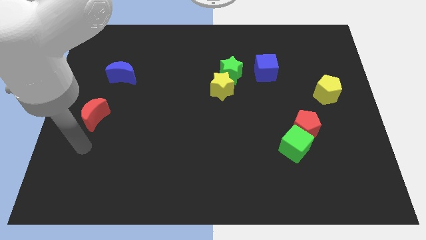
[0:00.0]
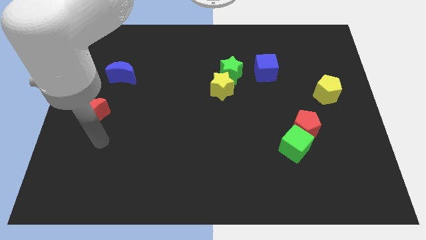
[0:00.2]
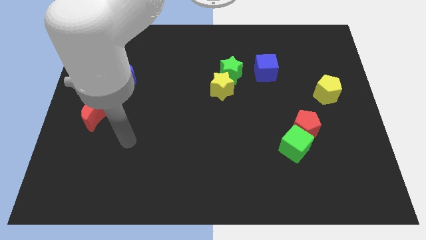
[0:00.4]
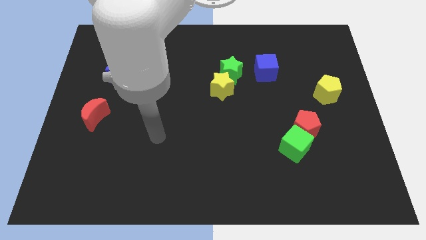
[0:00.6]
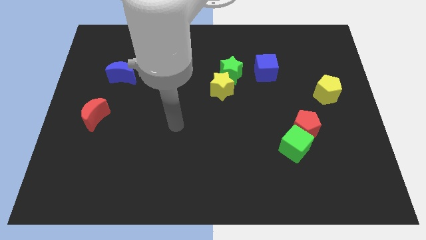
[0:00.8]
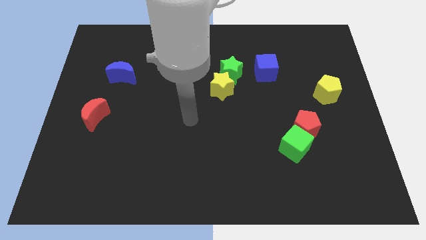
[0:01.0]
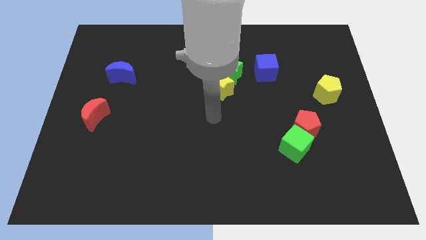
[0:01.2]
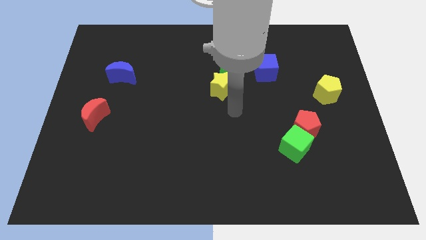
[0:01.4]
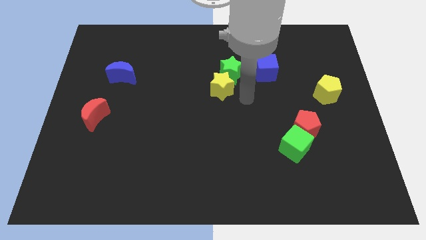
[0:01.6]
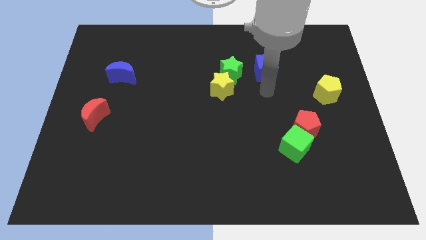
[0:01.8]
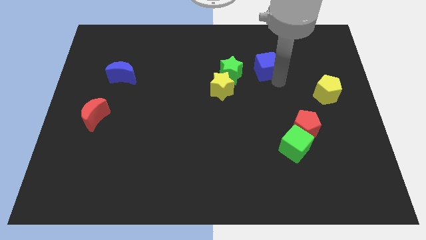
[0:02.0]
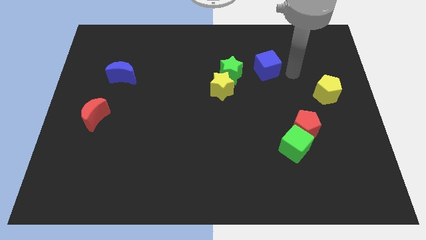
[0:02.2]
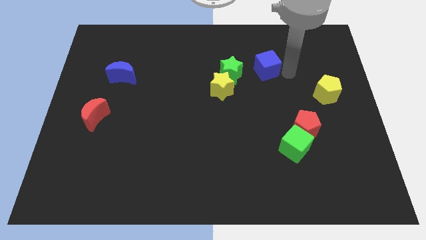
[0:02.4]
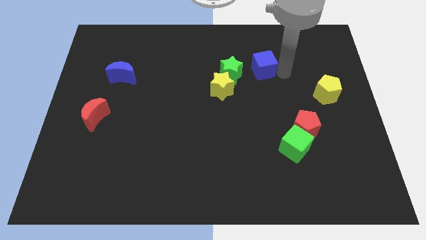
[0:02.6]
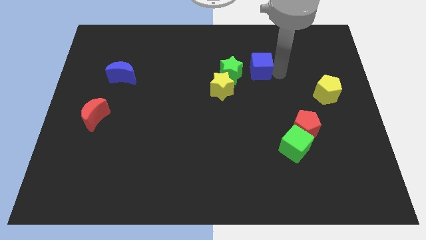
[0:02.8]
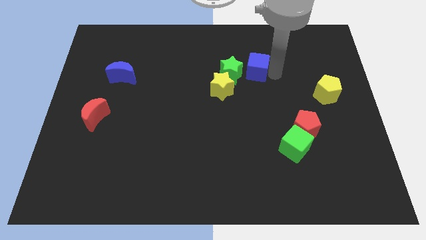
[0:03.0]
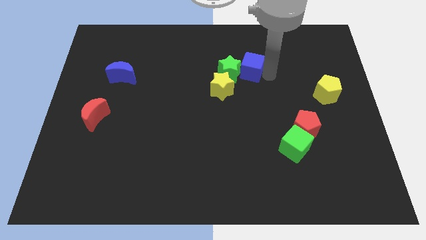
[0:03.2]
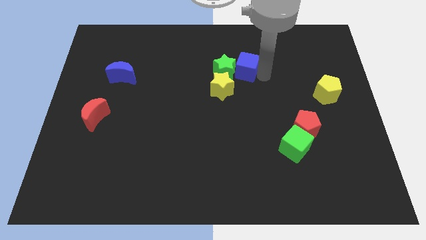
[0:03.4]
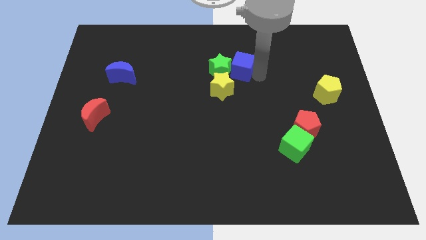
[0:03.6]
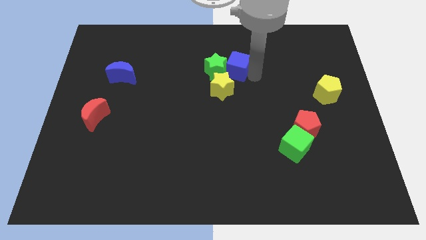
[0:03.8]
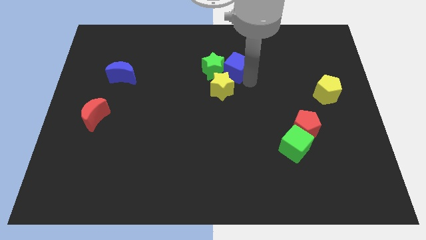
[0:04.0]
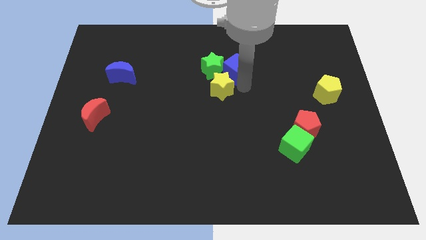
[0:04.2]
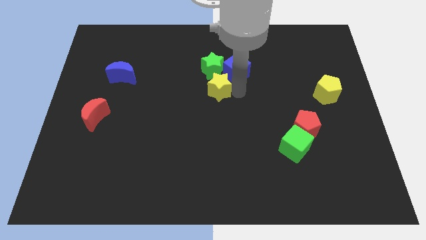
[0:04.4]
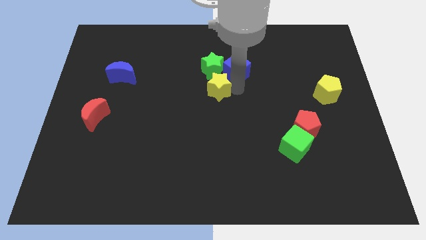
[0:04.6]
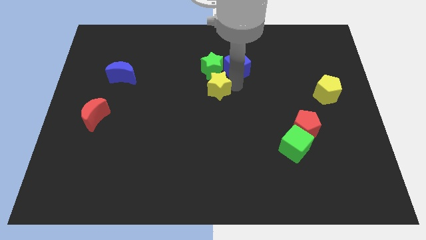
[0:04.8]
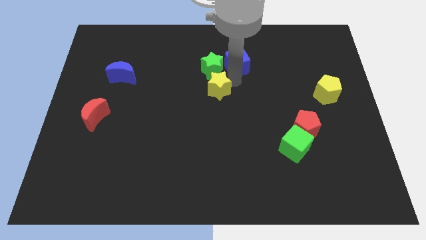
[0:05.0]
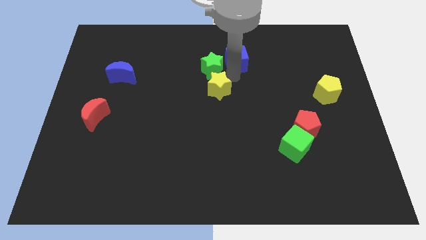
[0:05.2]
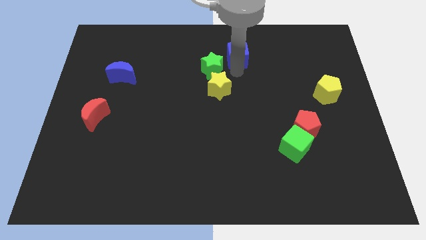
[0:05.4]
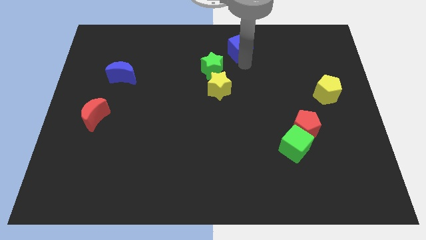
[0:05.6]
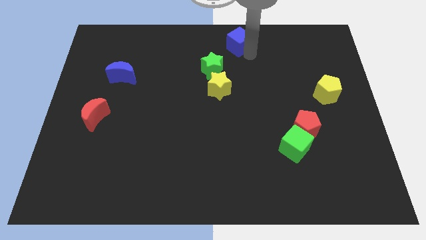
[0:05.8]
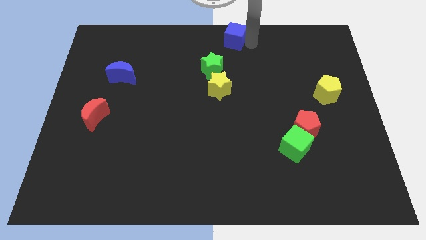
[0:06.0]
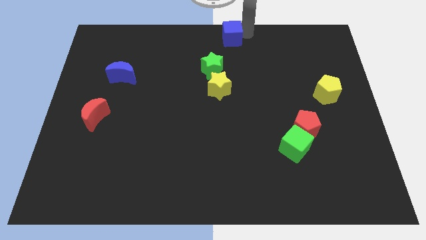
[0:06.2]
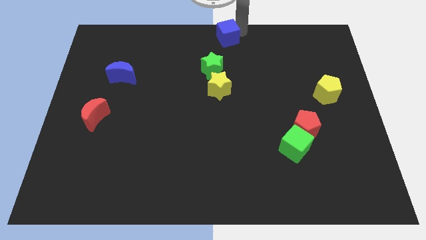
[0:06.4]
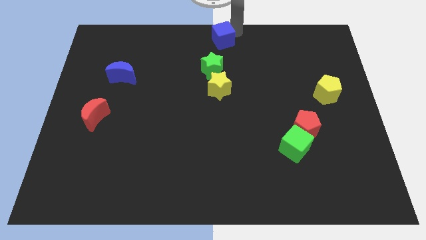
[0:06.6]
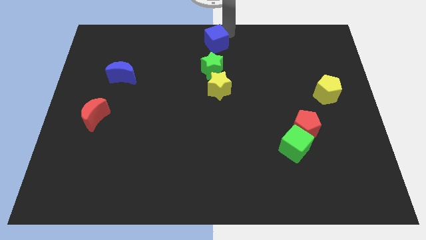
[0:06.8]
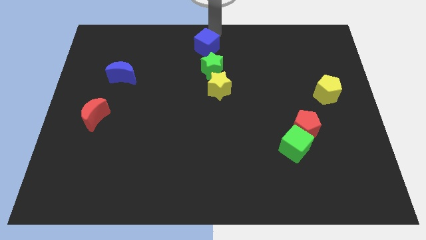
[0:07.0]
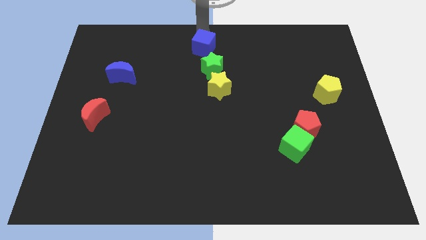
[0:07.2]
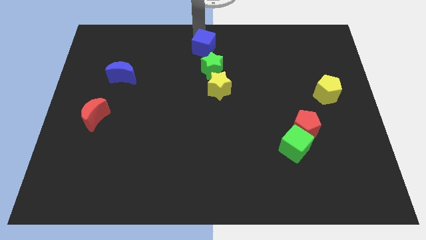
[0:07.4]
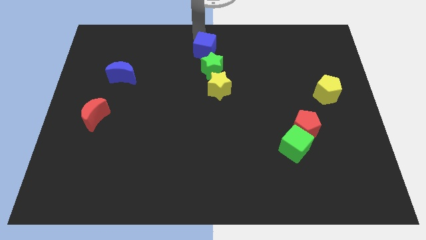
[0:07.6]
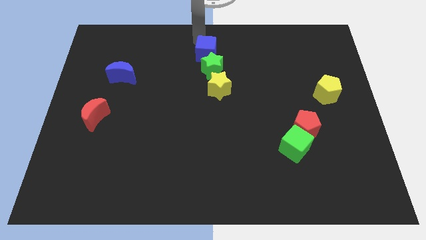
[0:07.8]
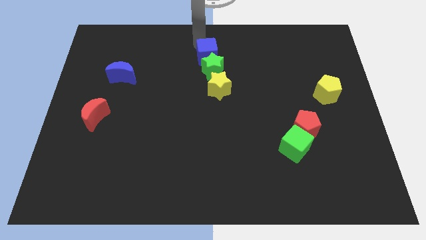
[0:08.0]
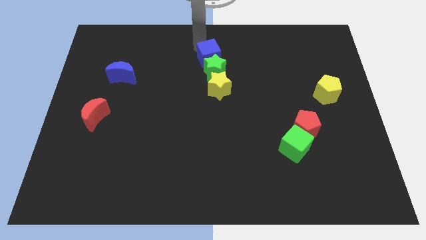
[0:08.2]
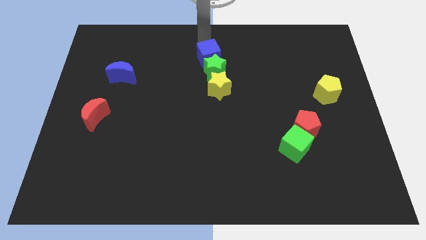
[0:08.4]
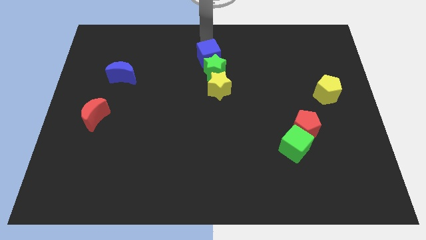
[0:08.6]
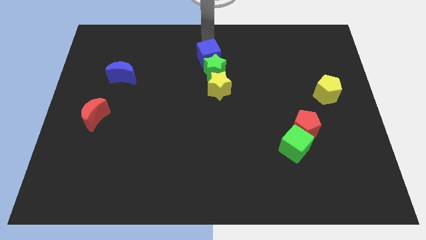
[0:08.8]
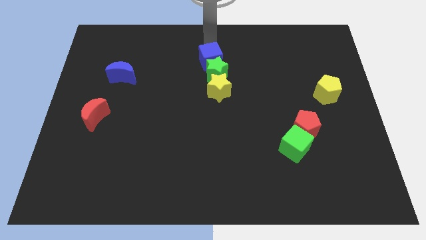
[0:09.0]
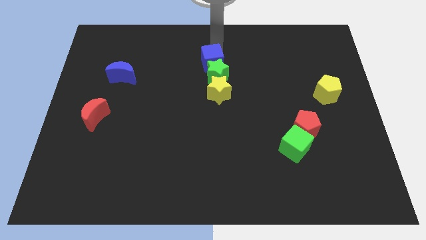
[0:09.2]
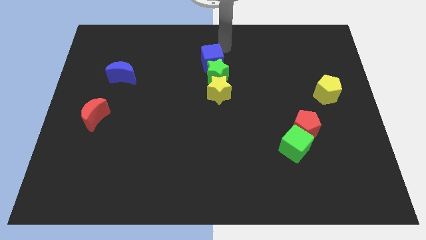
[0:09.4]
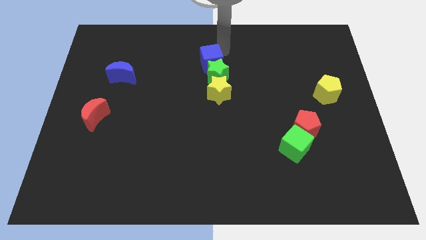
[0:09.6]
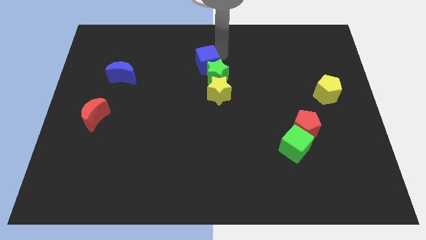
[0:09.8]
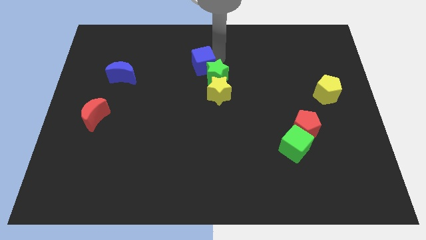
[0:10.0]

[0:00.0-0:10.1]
push the blue cube diagonally up and to the left of the yellow star
